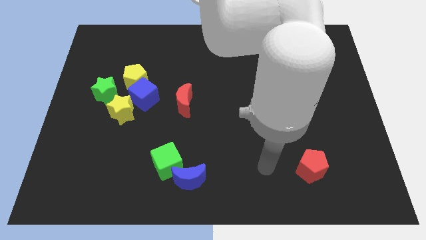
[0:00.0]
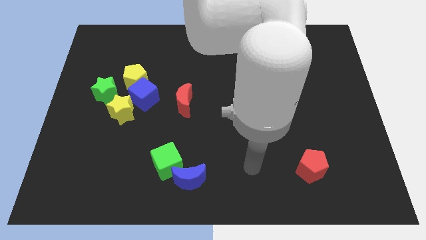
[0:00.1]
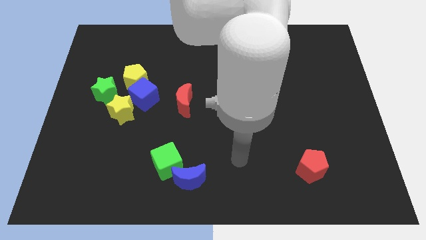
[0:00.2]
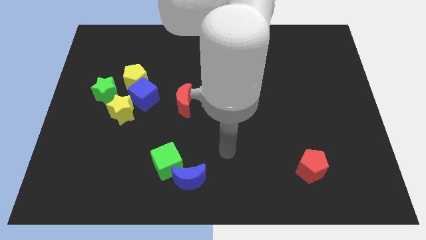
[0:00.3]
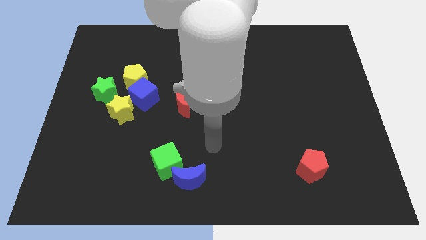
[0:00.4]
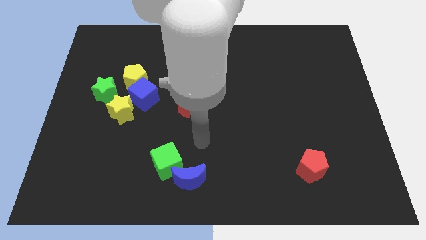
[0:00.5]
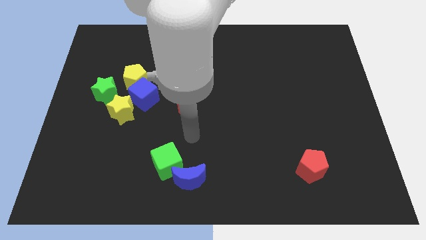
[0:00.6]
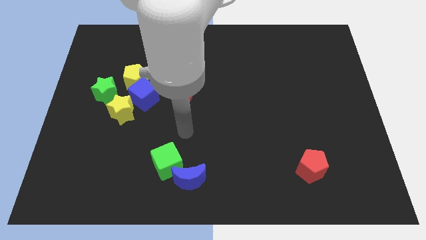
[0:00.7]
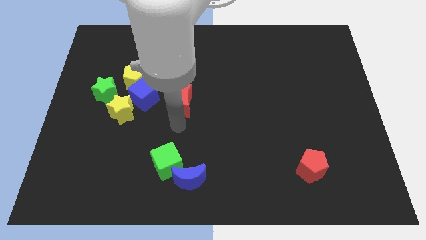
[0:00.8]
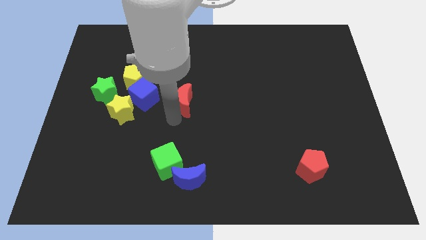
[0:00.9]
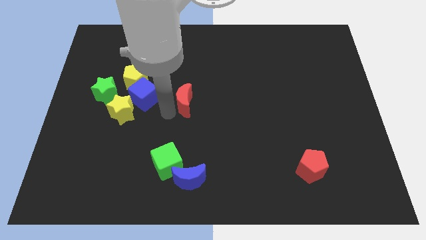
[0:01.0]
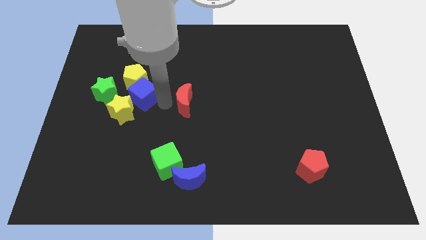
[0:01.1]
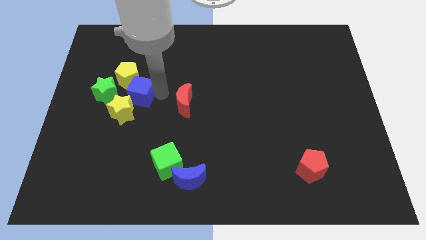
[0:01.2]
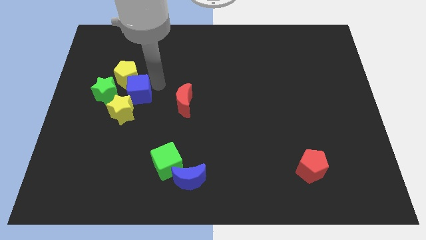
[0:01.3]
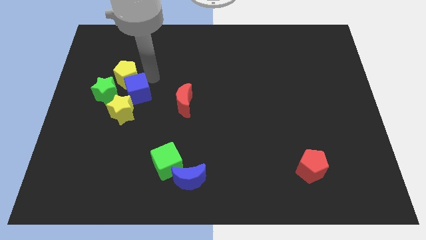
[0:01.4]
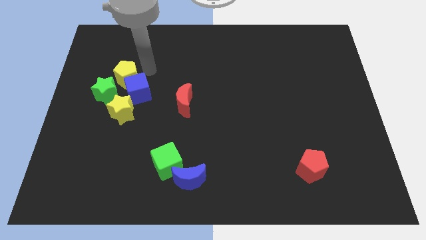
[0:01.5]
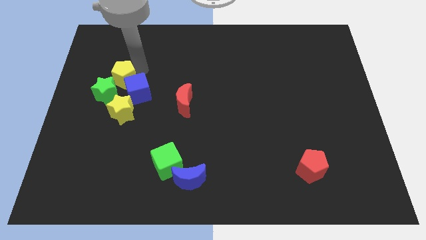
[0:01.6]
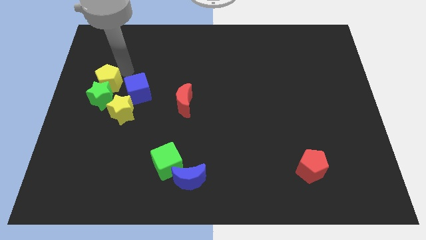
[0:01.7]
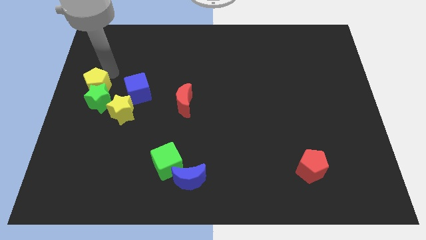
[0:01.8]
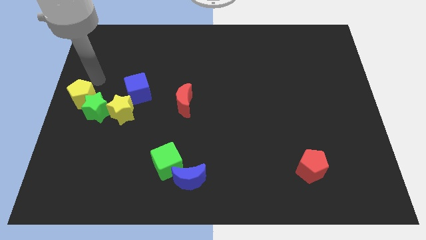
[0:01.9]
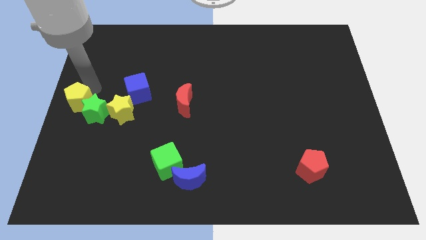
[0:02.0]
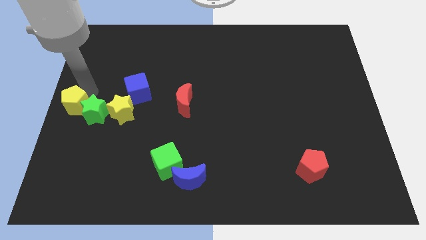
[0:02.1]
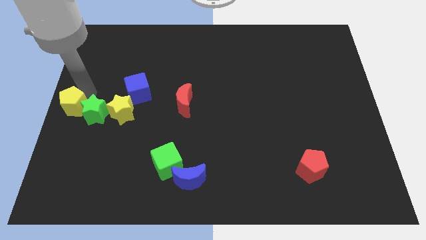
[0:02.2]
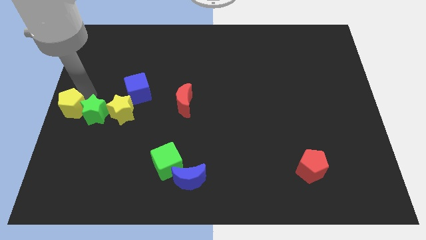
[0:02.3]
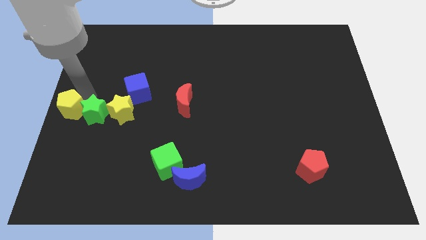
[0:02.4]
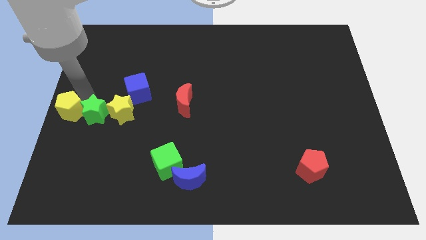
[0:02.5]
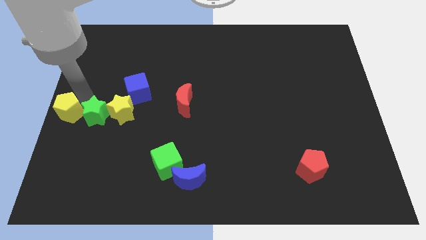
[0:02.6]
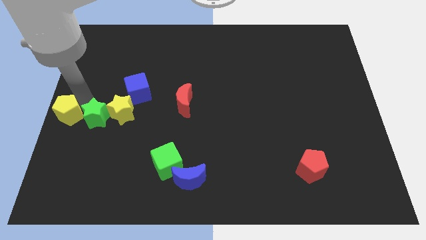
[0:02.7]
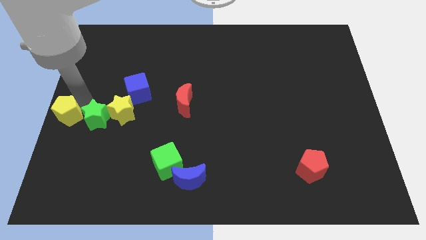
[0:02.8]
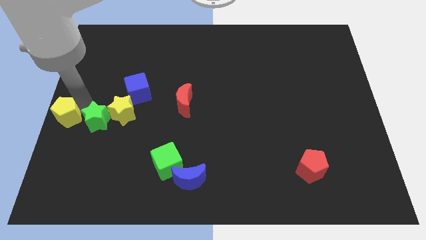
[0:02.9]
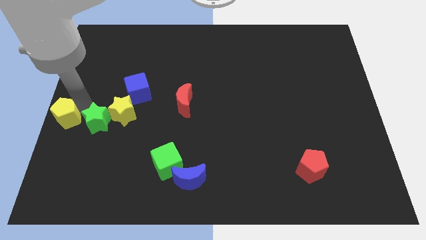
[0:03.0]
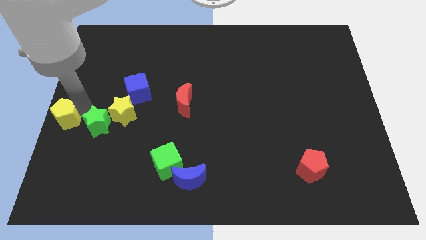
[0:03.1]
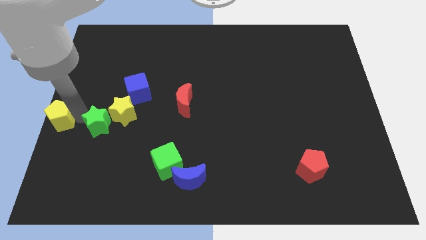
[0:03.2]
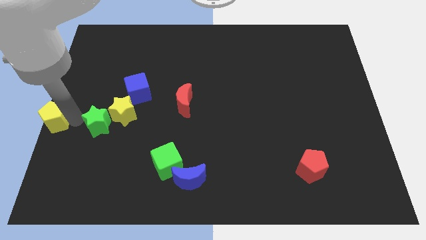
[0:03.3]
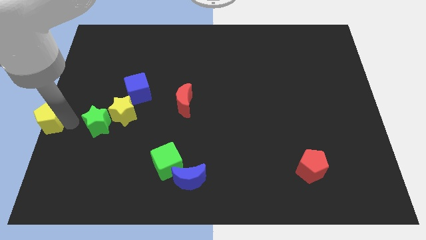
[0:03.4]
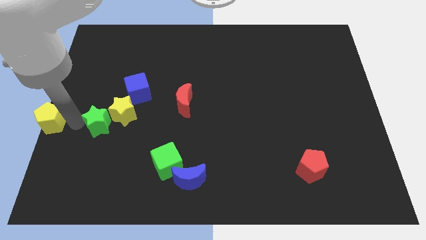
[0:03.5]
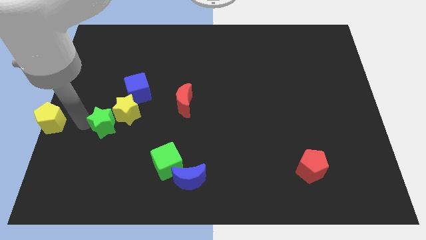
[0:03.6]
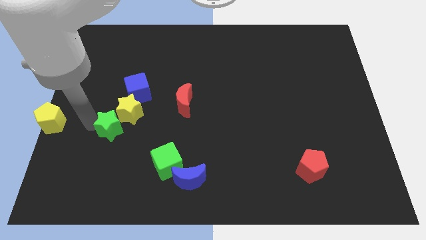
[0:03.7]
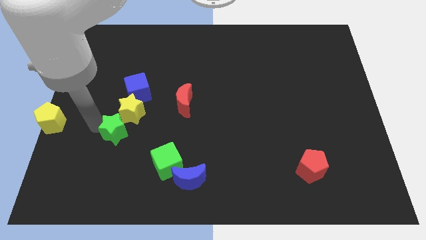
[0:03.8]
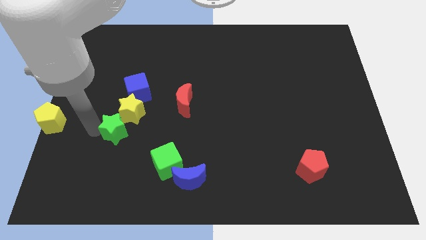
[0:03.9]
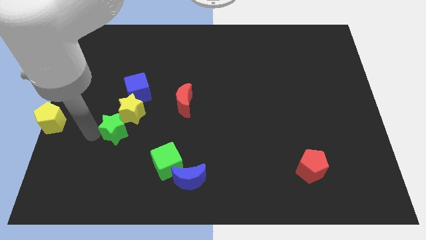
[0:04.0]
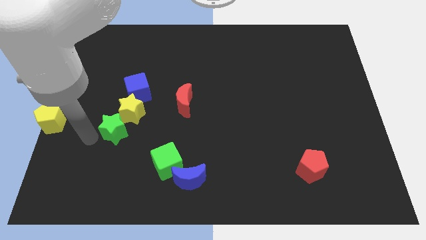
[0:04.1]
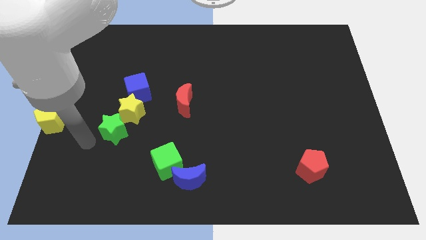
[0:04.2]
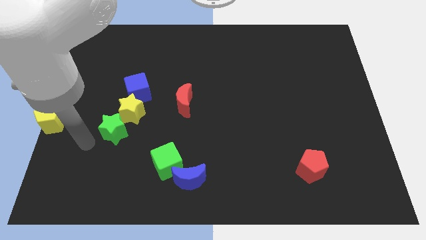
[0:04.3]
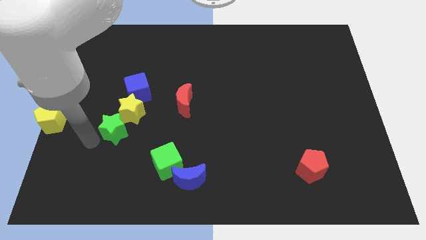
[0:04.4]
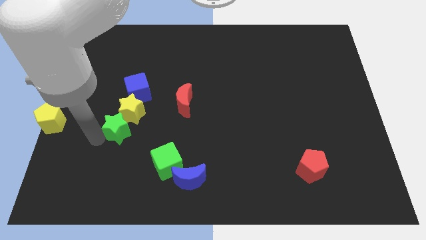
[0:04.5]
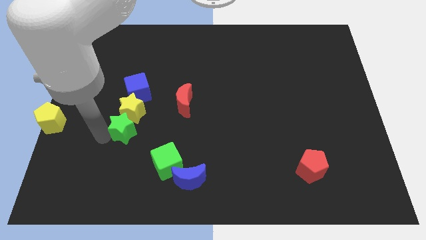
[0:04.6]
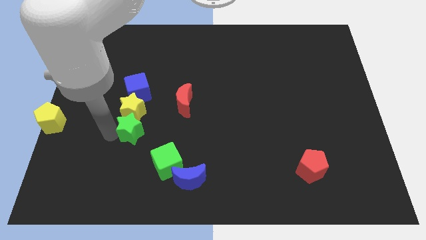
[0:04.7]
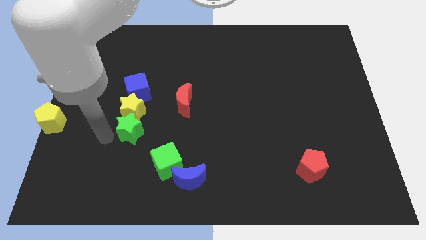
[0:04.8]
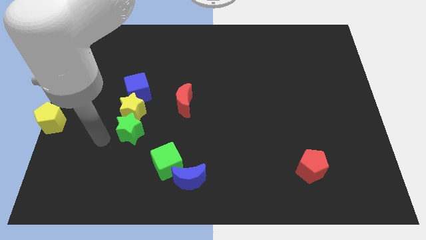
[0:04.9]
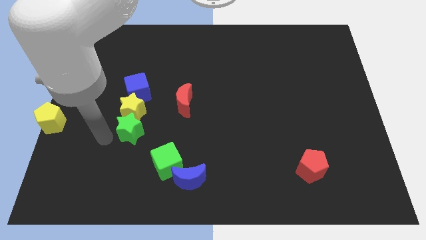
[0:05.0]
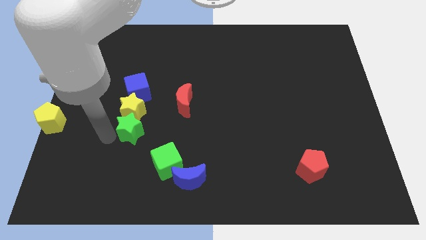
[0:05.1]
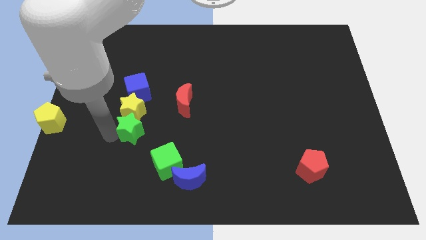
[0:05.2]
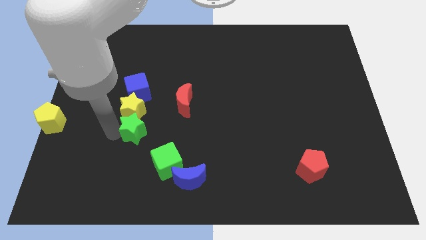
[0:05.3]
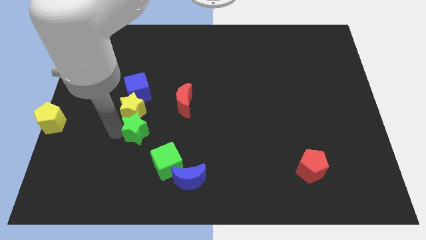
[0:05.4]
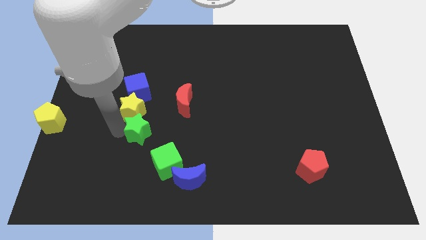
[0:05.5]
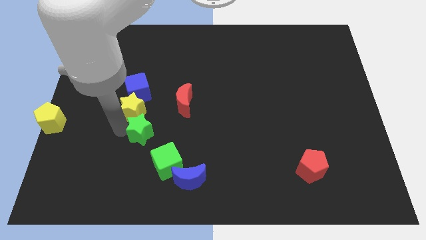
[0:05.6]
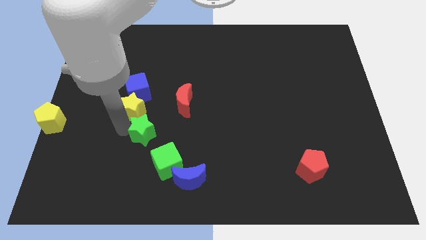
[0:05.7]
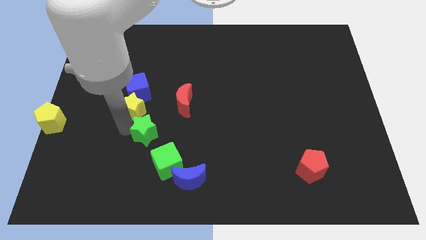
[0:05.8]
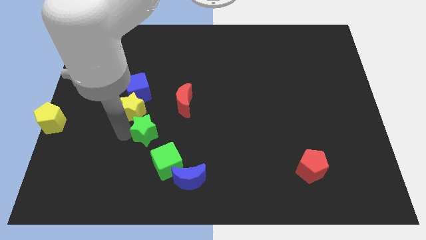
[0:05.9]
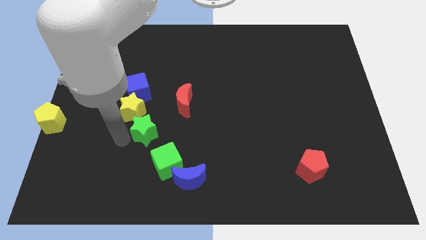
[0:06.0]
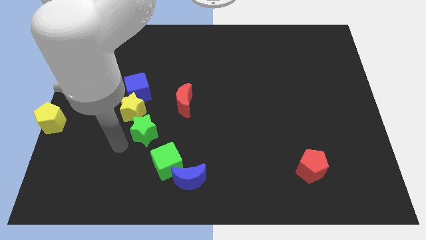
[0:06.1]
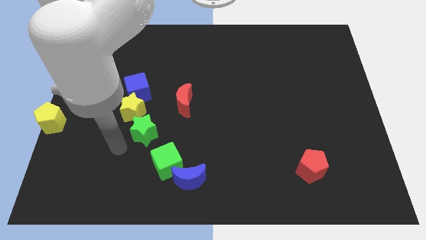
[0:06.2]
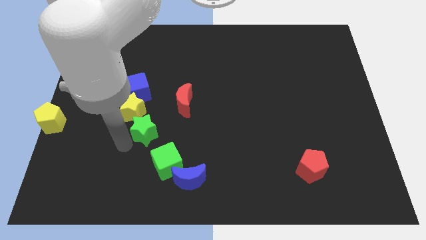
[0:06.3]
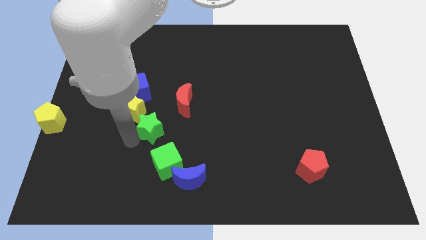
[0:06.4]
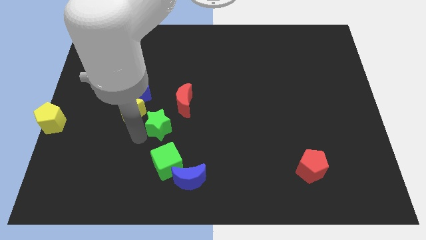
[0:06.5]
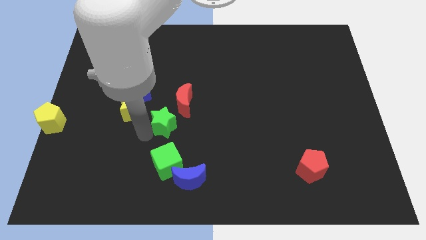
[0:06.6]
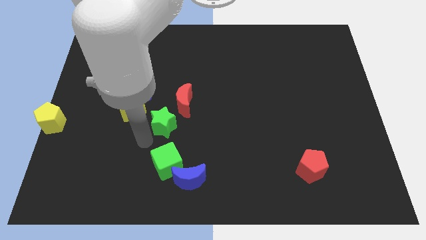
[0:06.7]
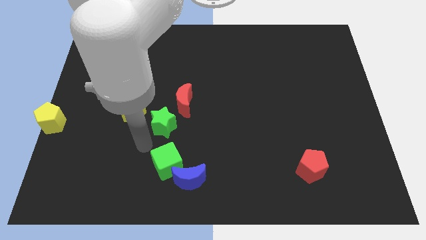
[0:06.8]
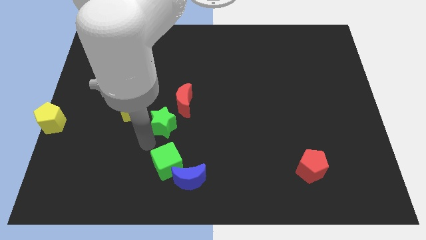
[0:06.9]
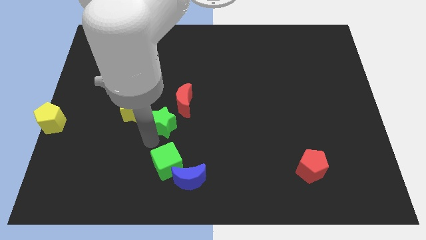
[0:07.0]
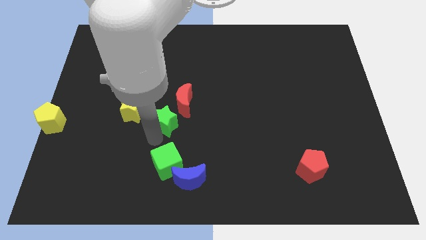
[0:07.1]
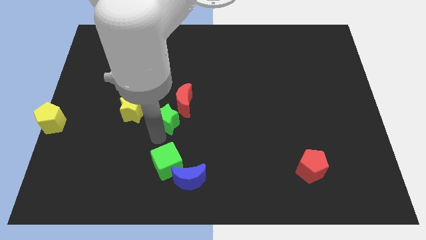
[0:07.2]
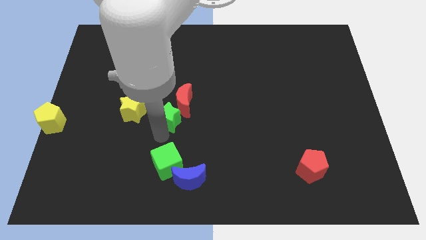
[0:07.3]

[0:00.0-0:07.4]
push the green star close to the red moon

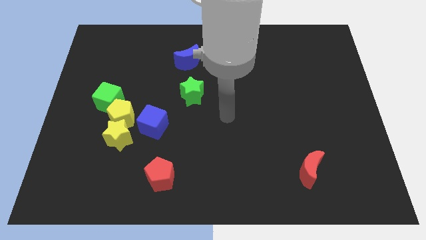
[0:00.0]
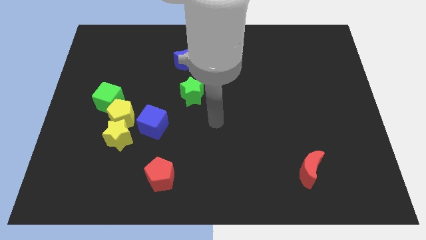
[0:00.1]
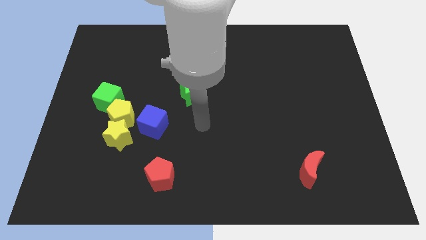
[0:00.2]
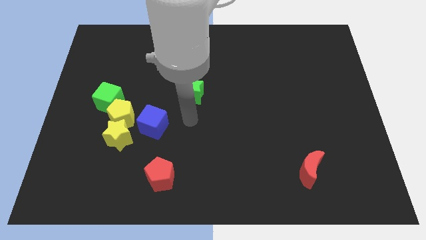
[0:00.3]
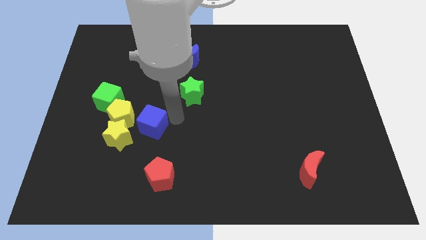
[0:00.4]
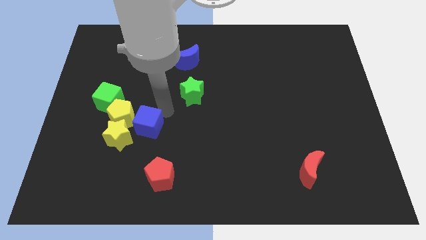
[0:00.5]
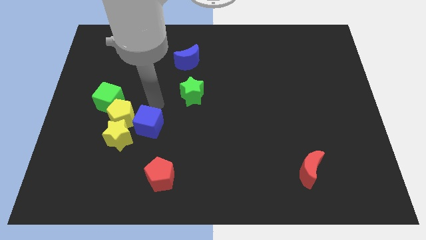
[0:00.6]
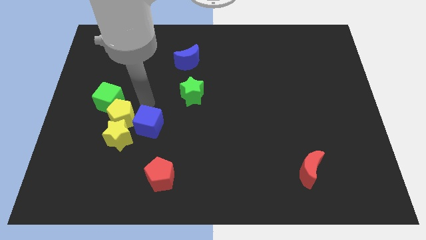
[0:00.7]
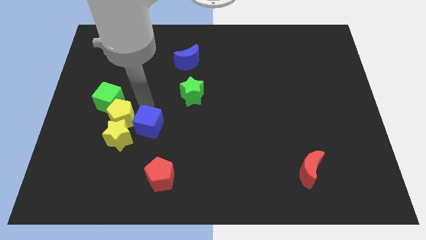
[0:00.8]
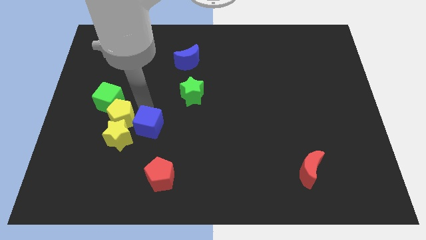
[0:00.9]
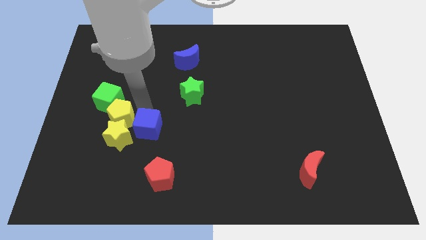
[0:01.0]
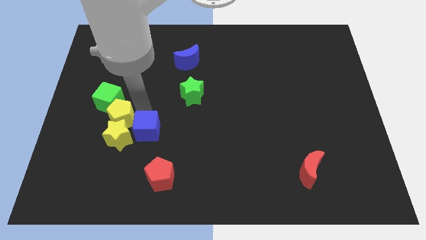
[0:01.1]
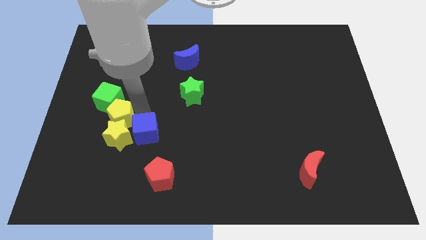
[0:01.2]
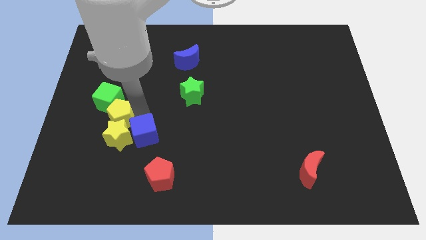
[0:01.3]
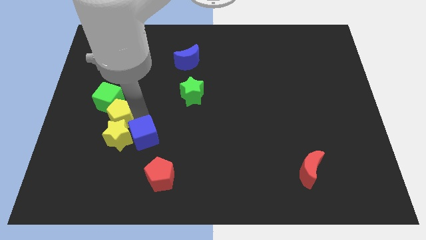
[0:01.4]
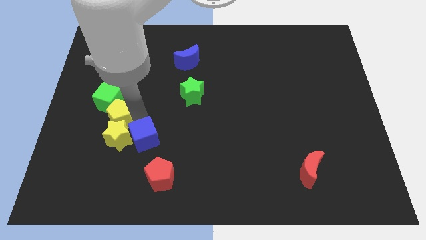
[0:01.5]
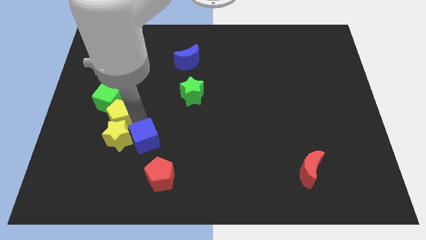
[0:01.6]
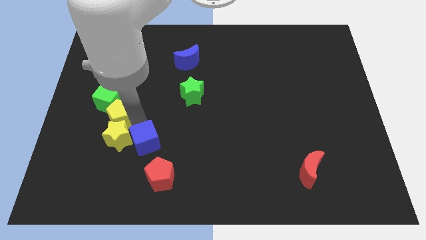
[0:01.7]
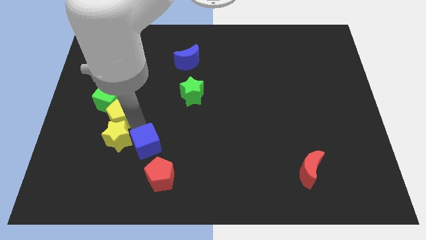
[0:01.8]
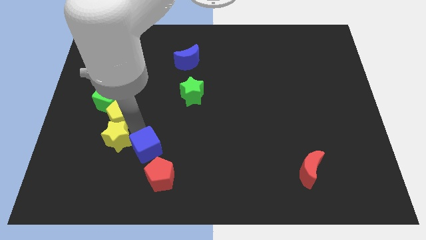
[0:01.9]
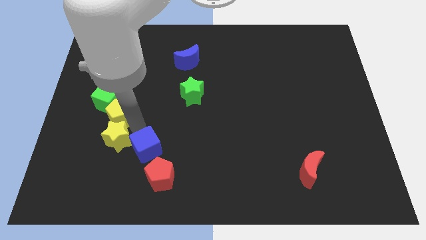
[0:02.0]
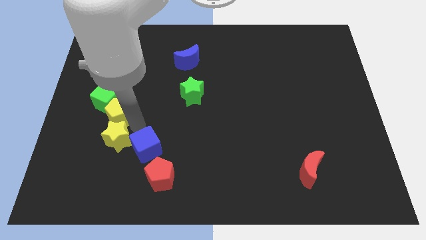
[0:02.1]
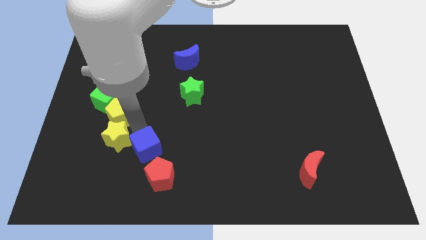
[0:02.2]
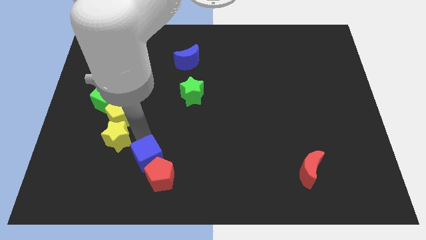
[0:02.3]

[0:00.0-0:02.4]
put the blue cube to the red pentagon
